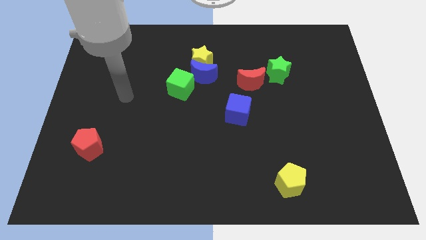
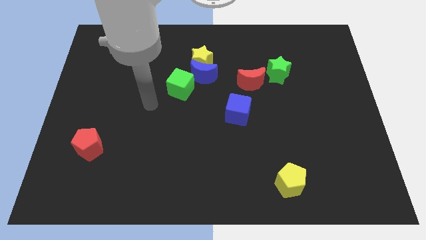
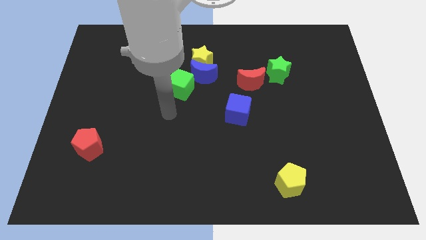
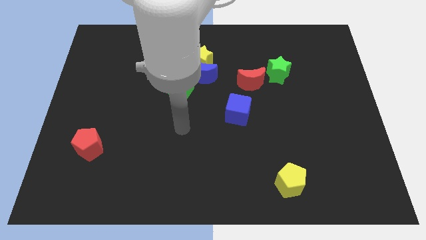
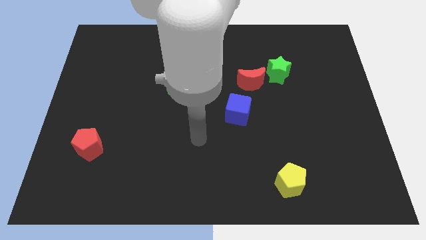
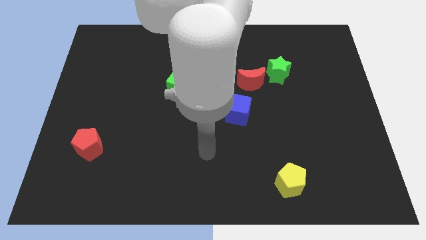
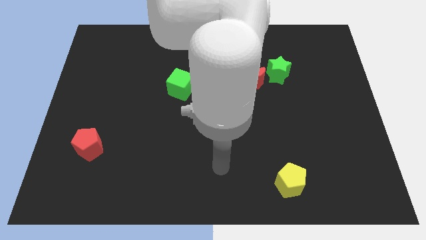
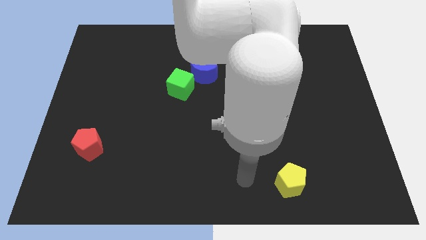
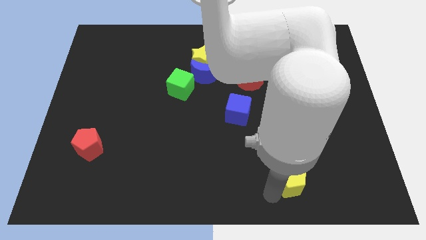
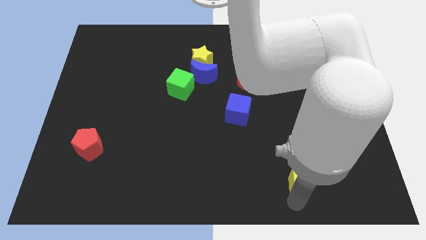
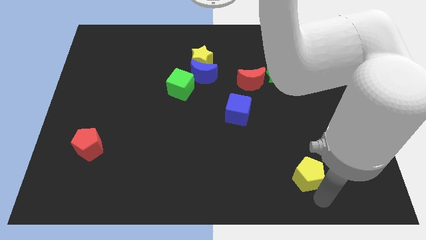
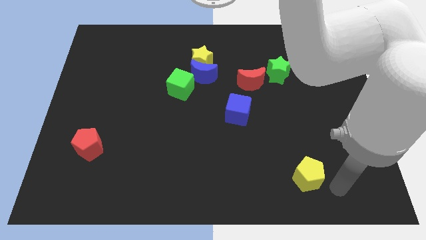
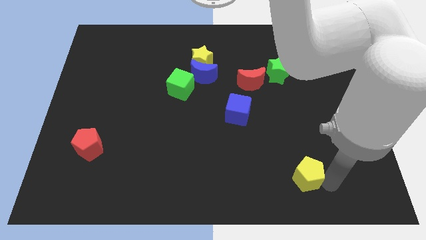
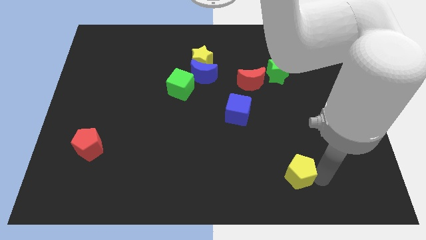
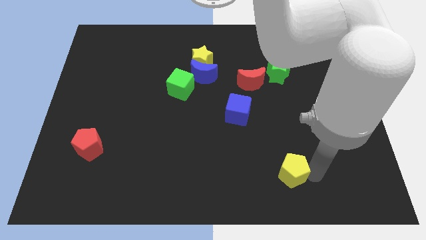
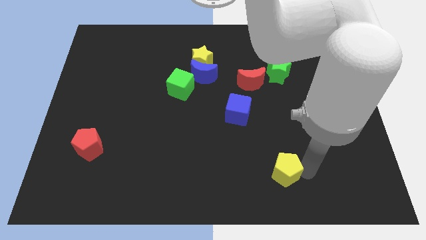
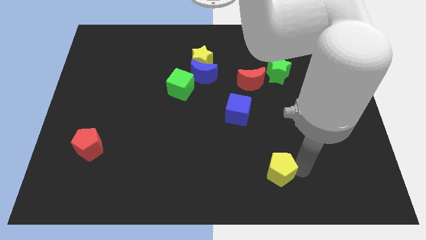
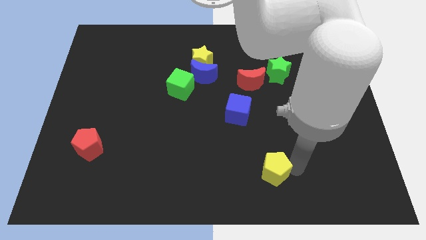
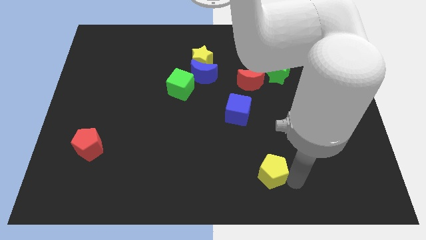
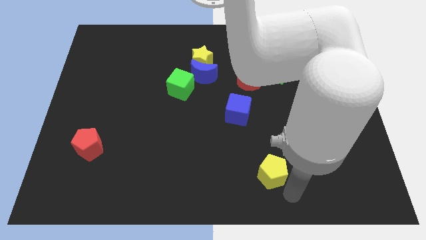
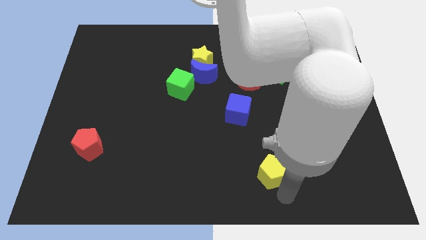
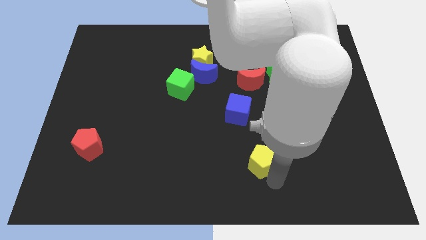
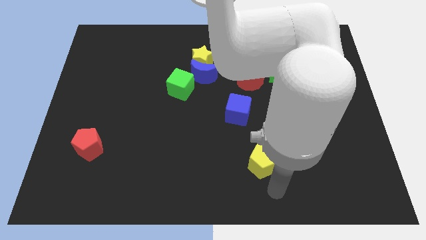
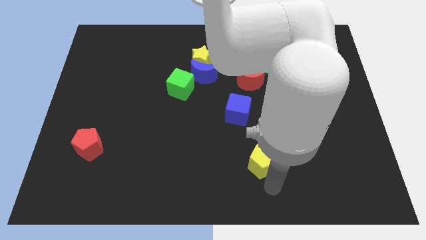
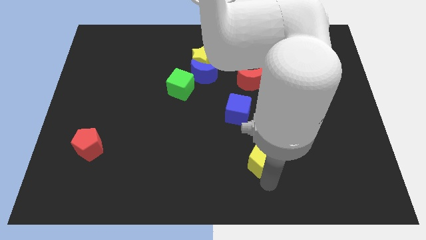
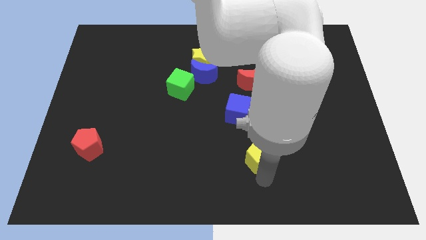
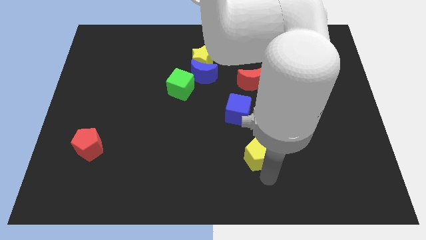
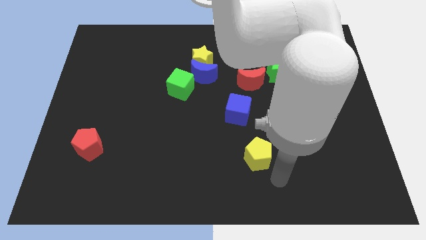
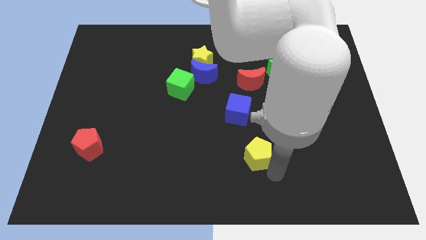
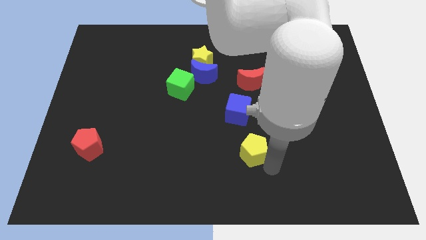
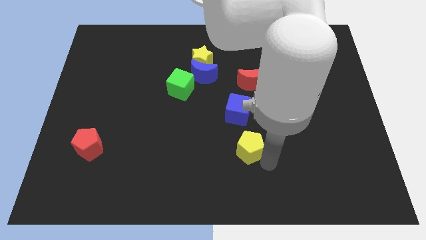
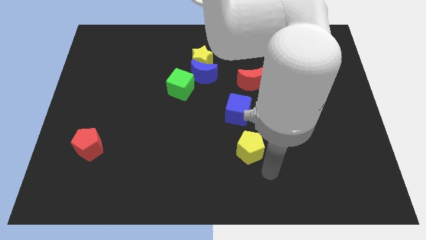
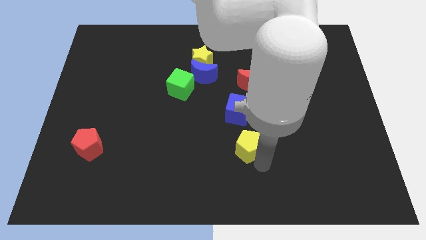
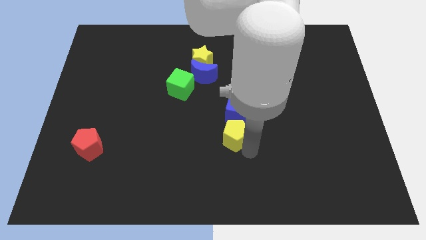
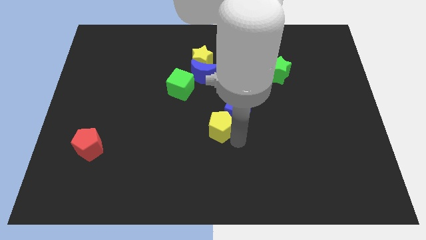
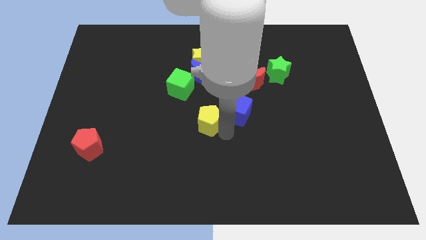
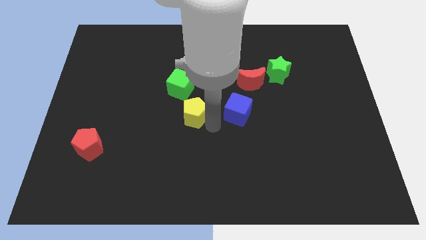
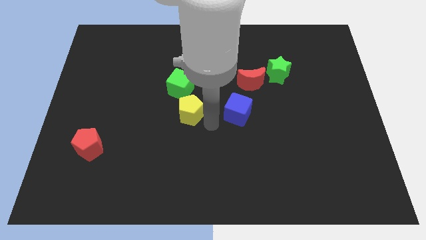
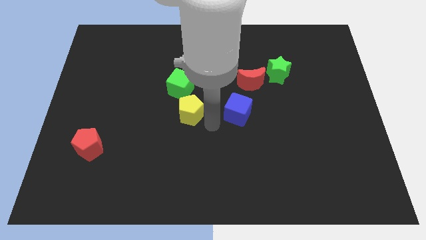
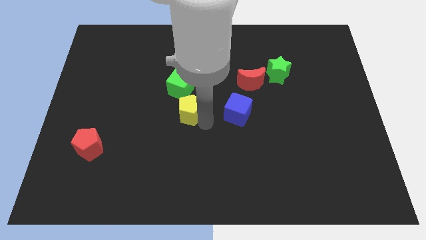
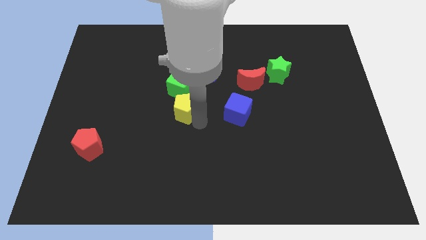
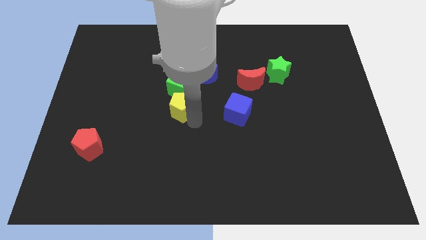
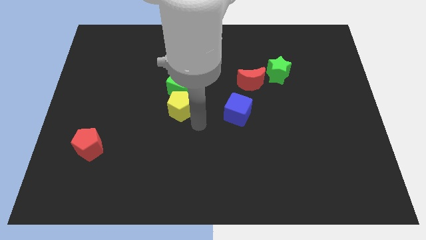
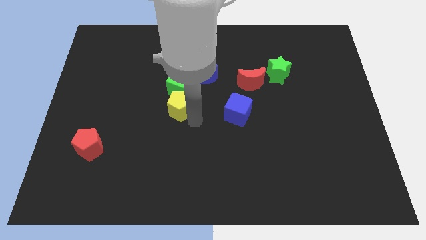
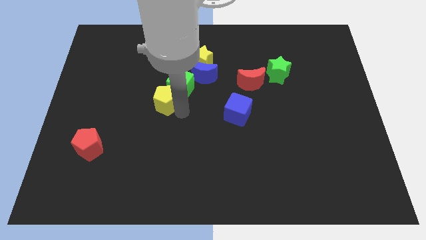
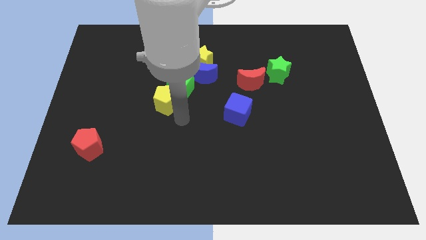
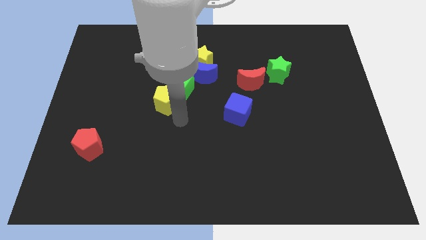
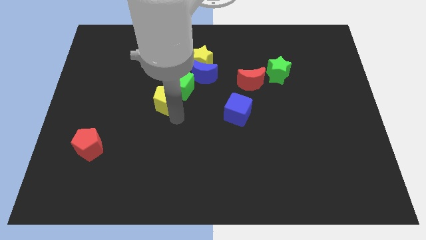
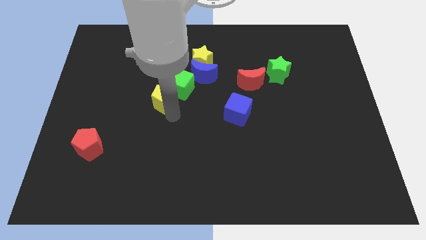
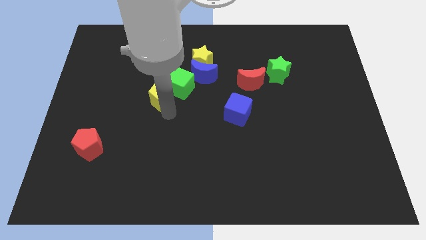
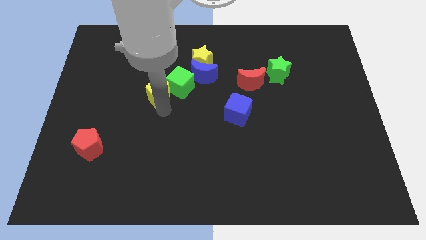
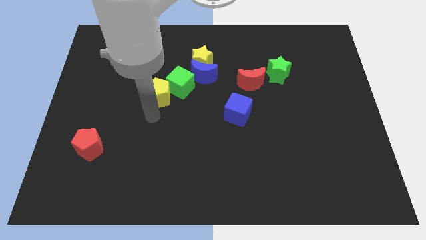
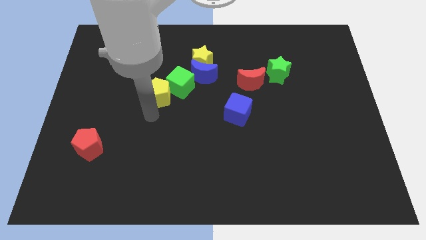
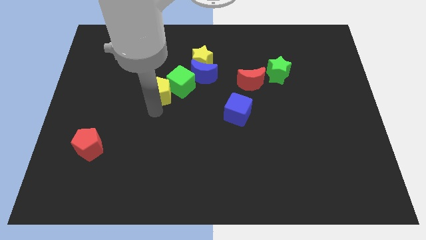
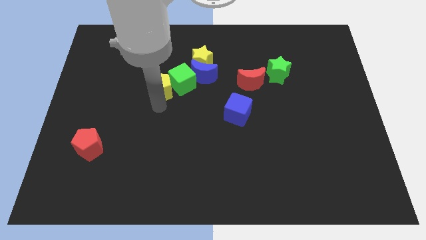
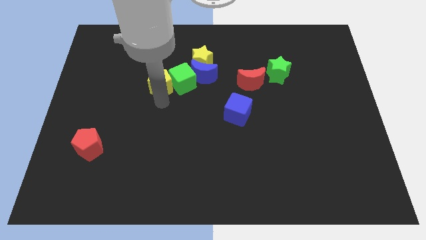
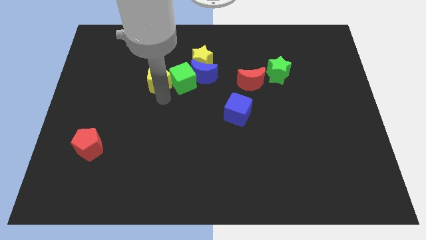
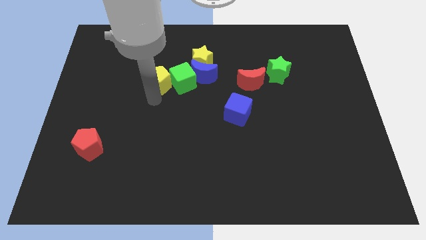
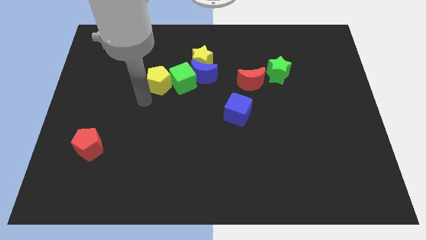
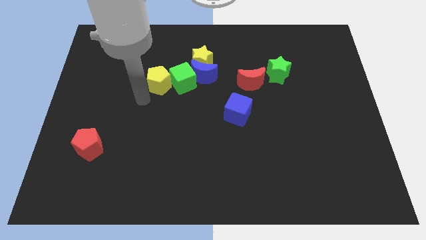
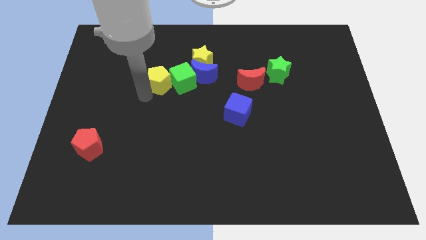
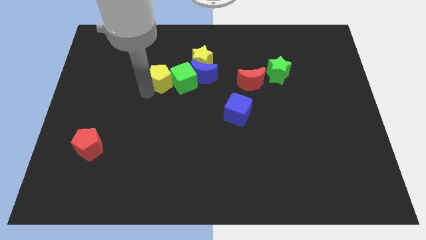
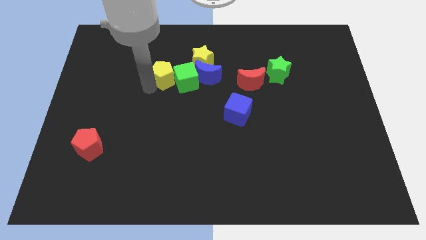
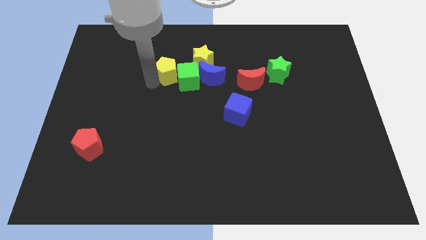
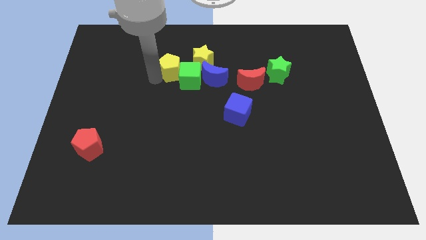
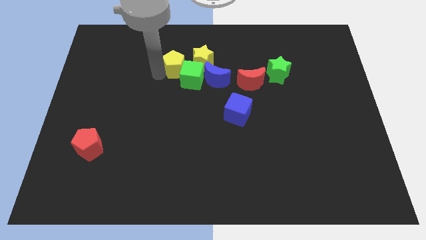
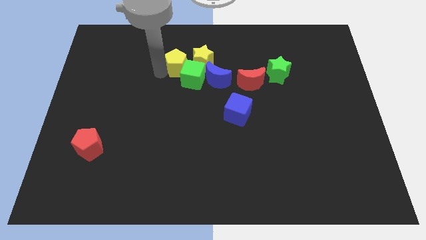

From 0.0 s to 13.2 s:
push the yellow pentagon to the top left side of the blue moon

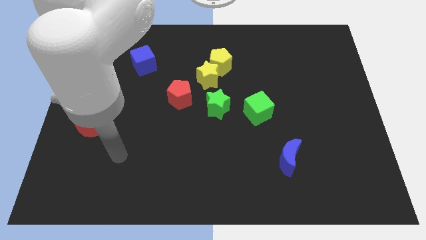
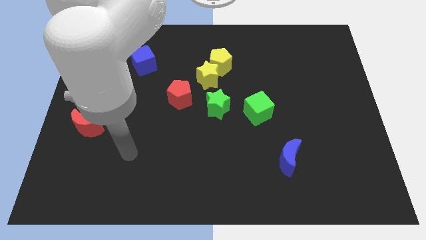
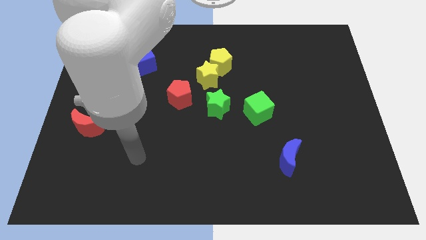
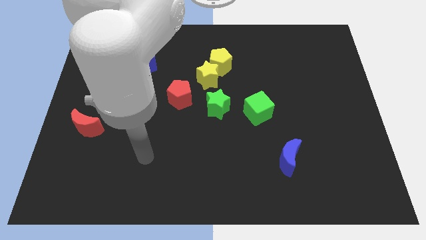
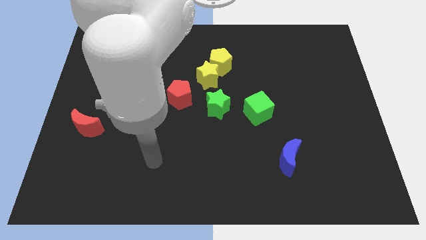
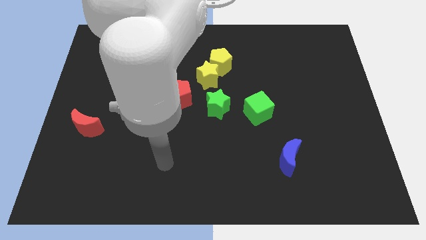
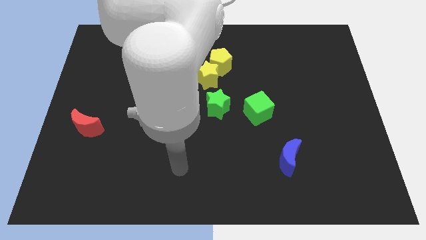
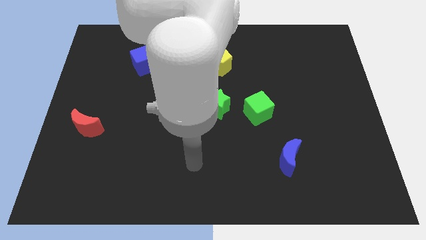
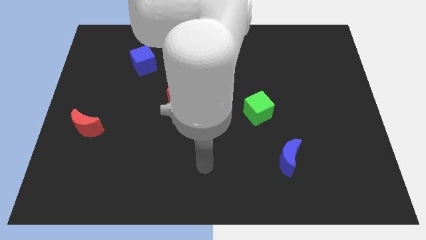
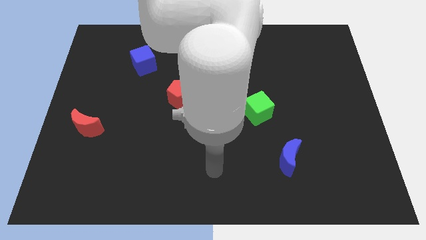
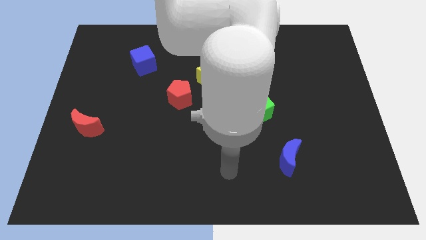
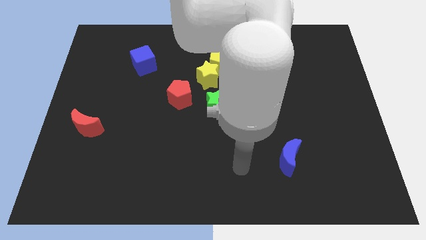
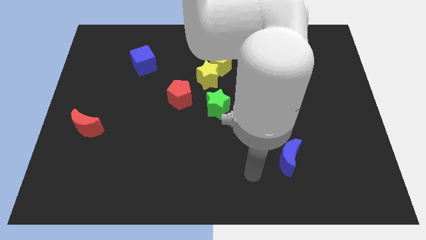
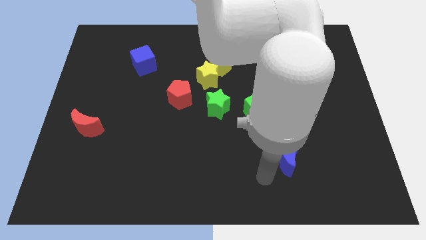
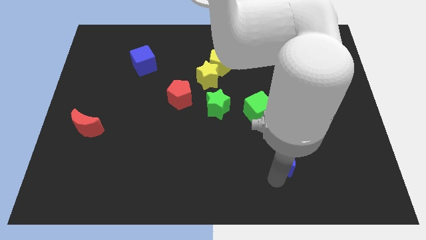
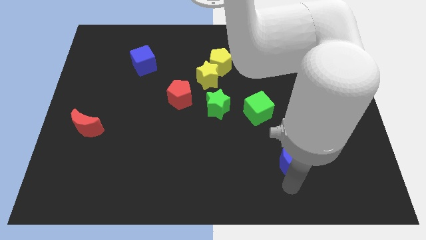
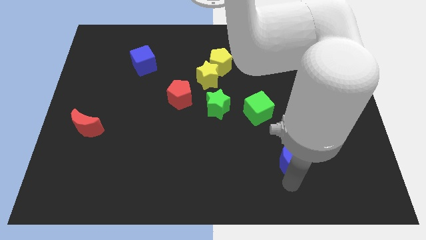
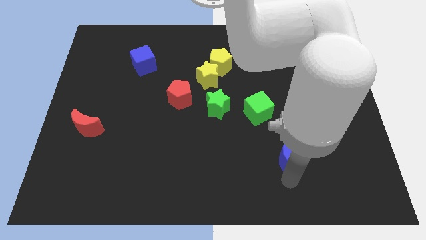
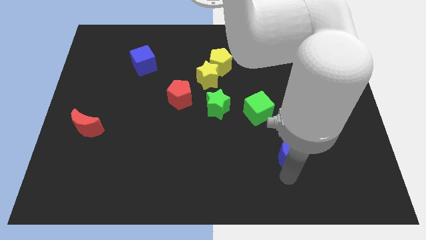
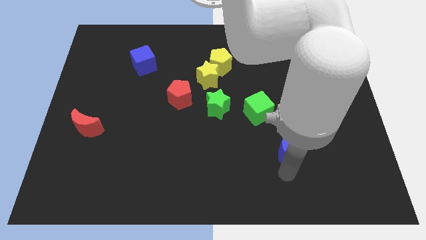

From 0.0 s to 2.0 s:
put the blue moon to the bottom right side of the green cube
